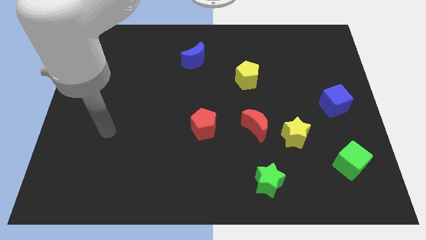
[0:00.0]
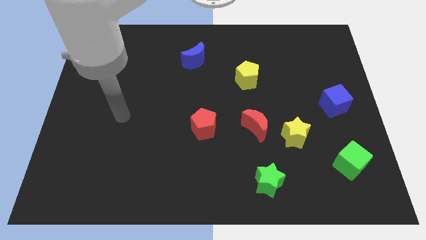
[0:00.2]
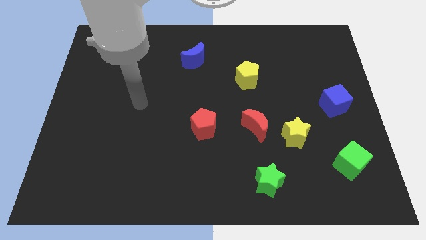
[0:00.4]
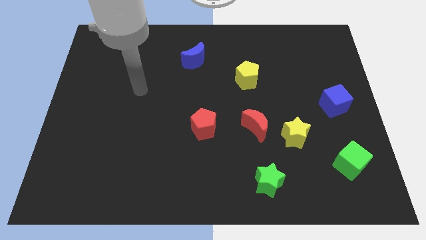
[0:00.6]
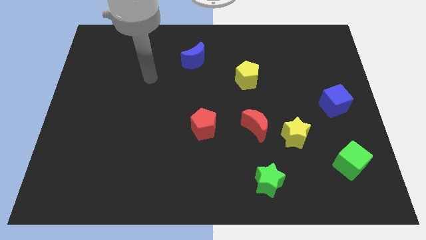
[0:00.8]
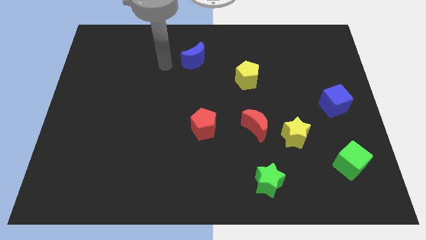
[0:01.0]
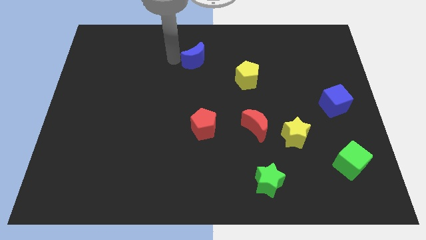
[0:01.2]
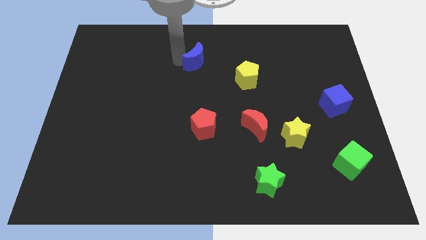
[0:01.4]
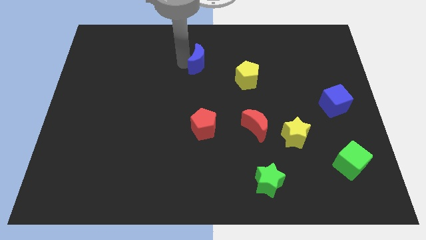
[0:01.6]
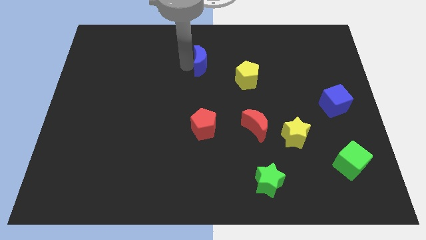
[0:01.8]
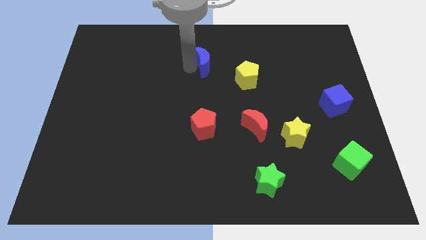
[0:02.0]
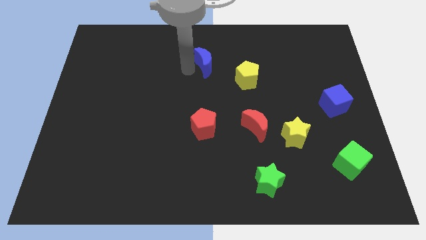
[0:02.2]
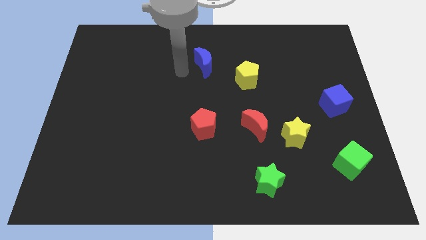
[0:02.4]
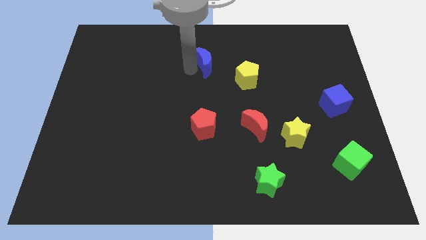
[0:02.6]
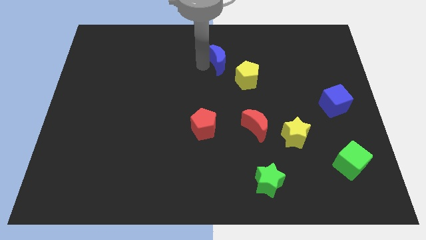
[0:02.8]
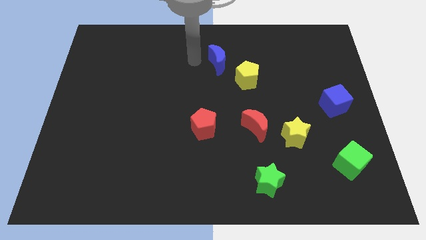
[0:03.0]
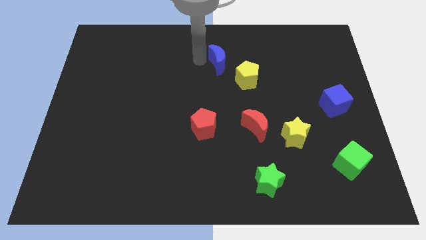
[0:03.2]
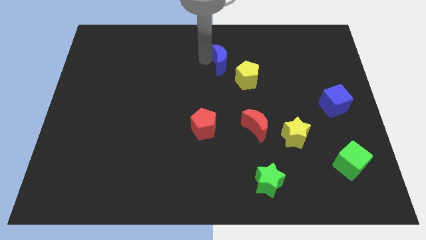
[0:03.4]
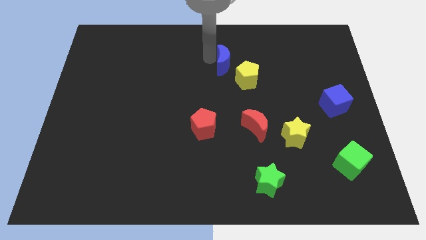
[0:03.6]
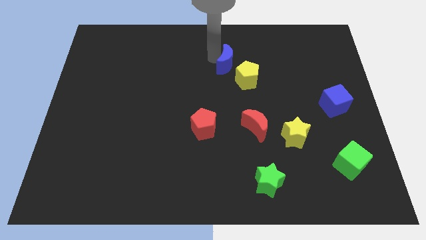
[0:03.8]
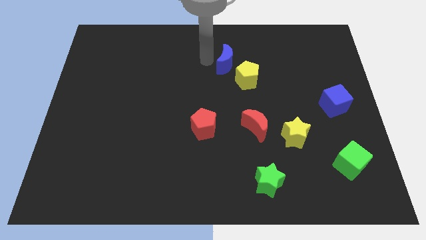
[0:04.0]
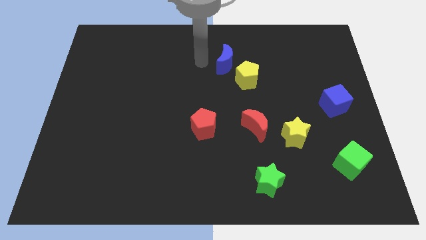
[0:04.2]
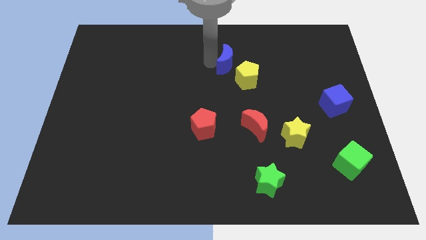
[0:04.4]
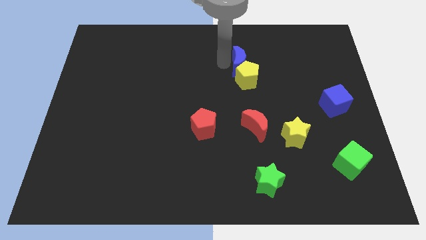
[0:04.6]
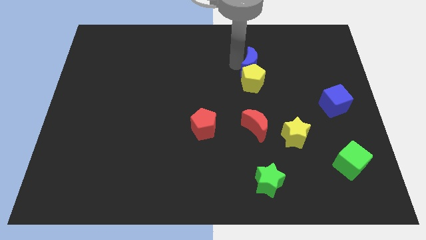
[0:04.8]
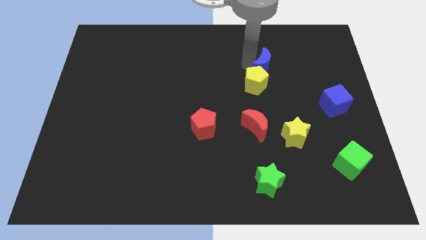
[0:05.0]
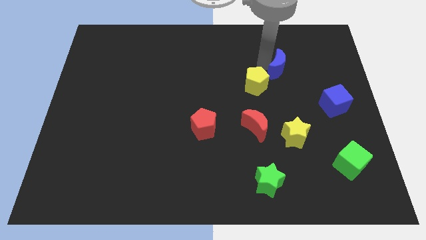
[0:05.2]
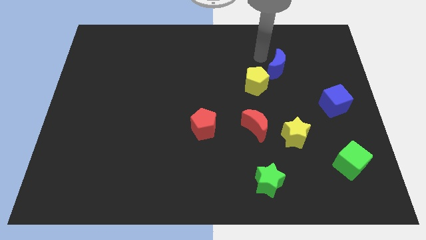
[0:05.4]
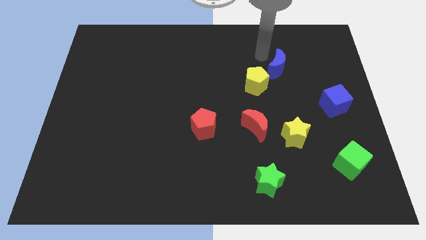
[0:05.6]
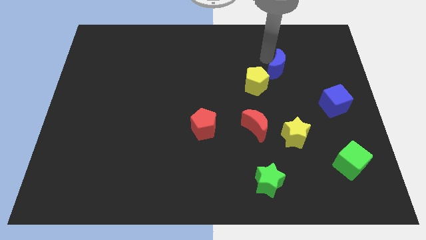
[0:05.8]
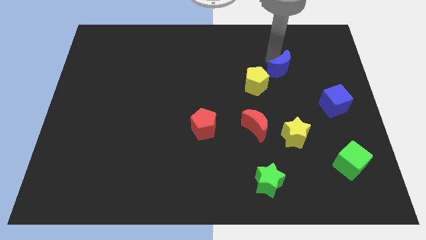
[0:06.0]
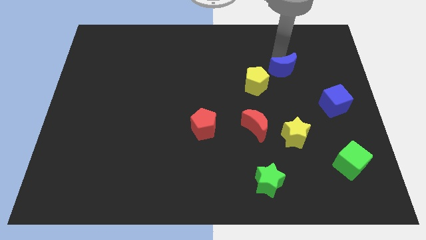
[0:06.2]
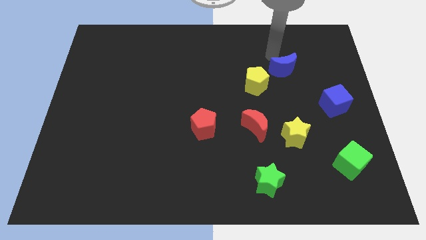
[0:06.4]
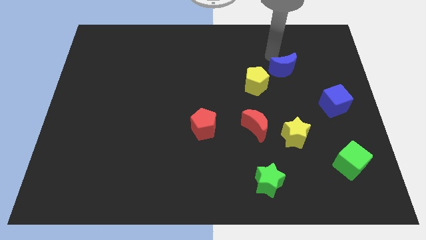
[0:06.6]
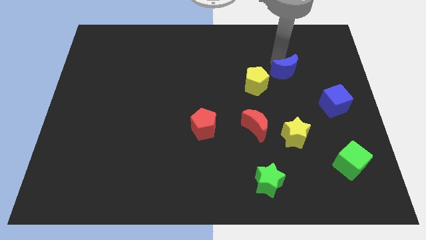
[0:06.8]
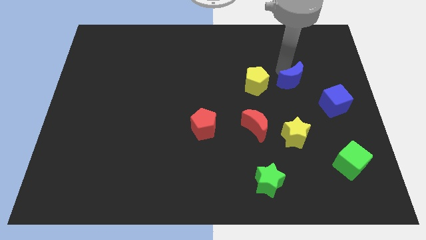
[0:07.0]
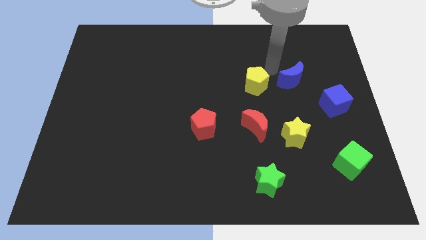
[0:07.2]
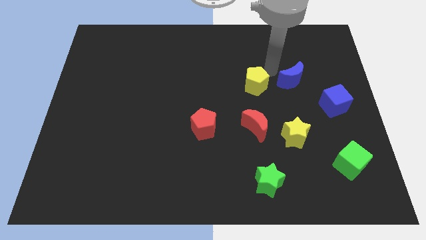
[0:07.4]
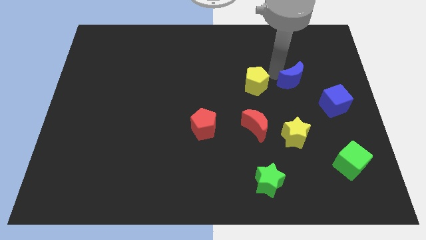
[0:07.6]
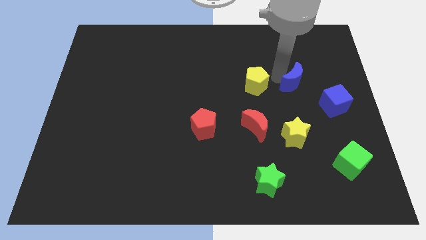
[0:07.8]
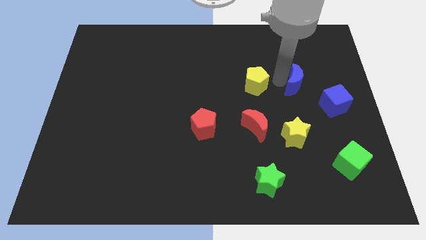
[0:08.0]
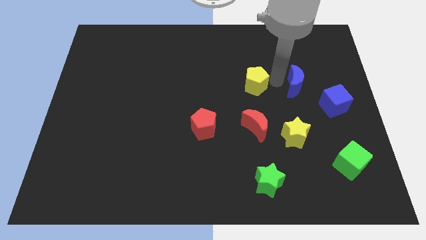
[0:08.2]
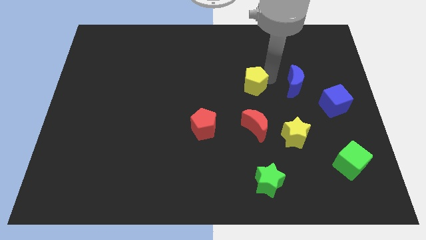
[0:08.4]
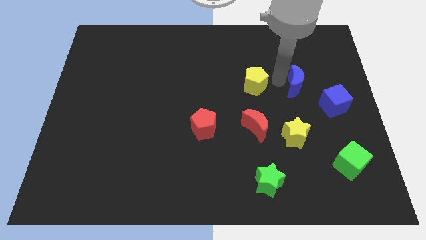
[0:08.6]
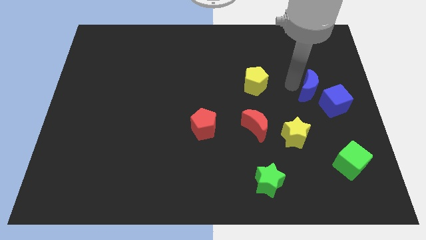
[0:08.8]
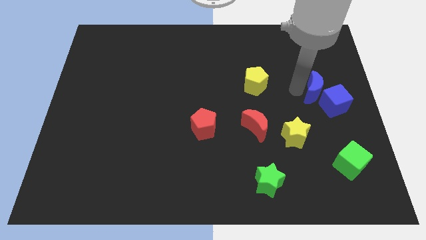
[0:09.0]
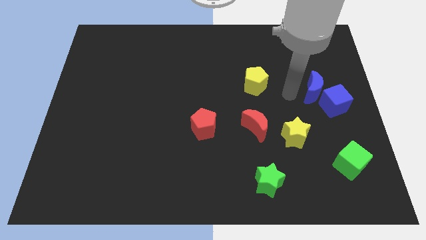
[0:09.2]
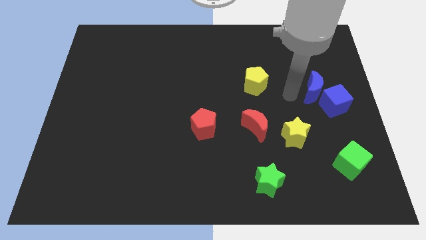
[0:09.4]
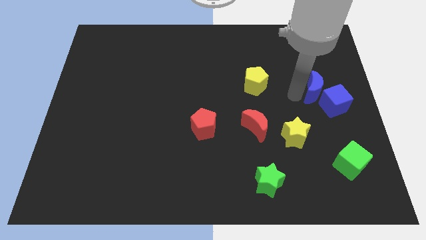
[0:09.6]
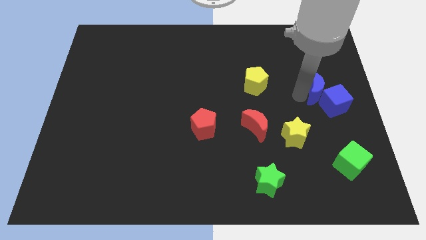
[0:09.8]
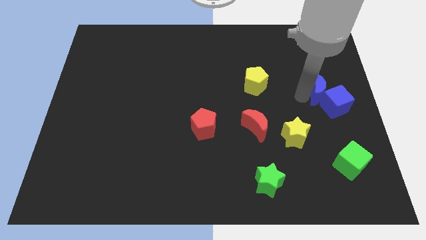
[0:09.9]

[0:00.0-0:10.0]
put the blue moon to the right side

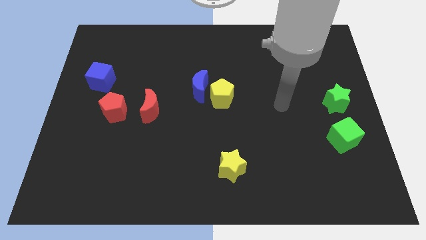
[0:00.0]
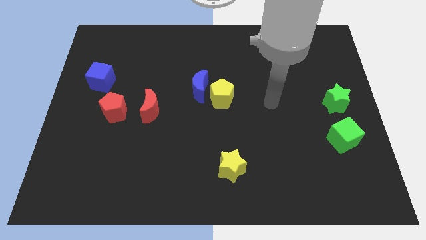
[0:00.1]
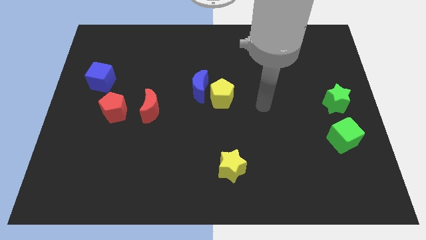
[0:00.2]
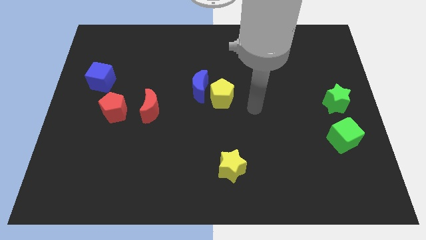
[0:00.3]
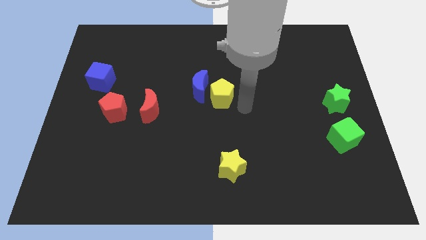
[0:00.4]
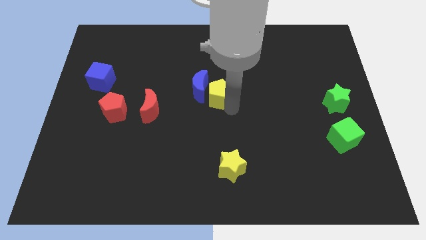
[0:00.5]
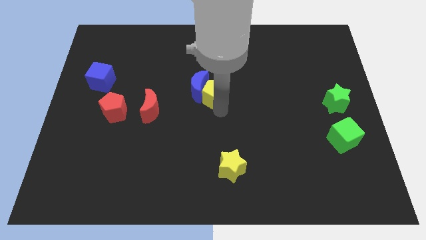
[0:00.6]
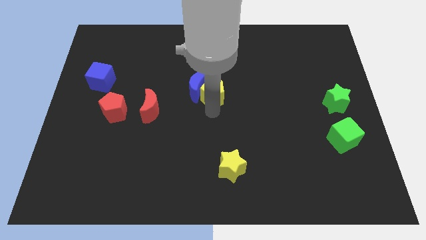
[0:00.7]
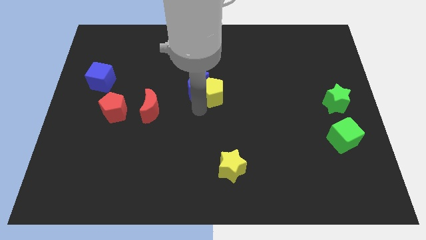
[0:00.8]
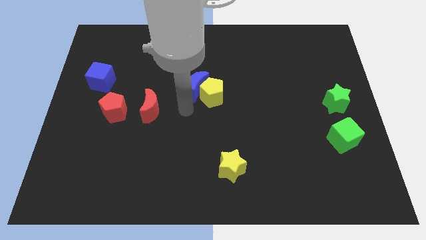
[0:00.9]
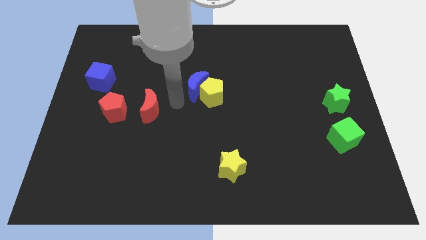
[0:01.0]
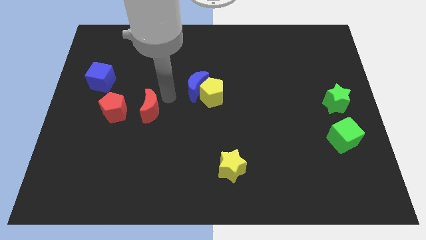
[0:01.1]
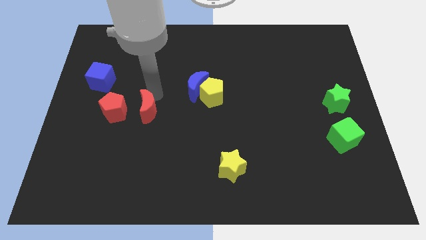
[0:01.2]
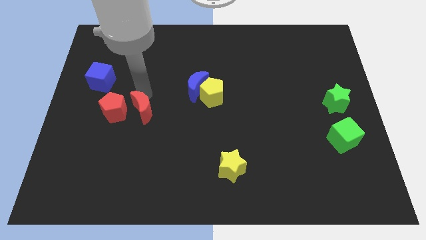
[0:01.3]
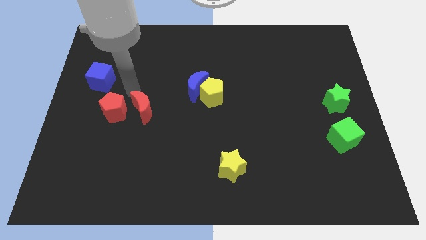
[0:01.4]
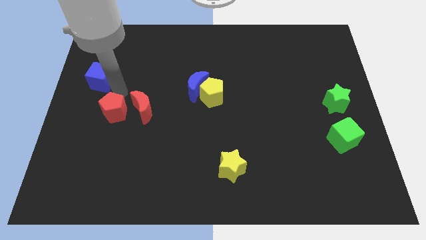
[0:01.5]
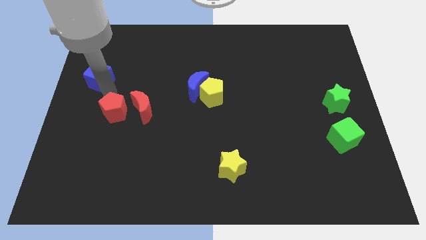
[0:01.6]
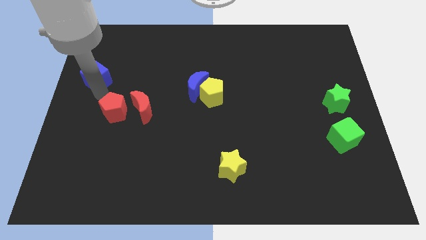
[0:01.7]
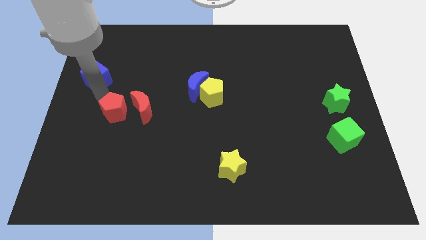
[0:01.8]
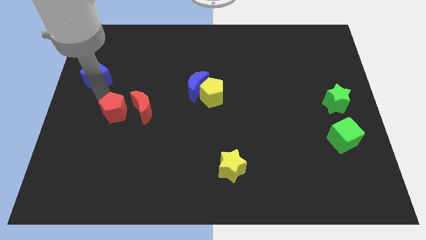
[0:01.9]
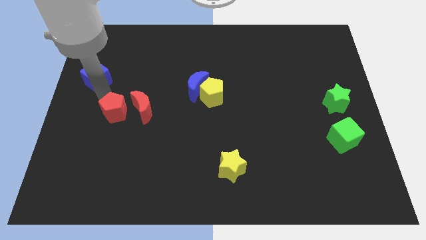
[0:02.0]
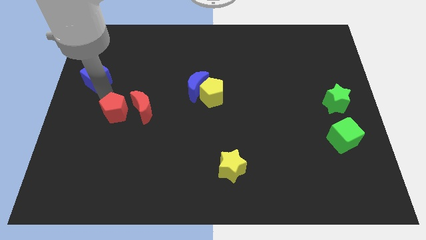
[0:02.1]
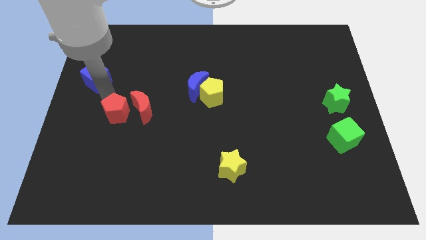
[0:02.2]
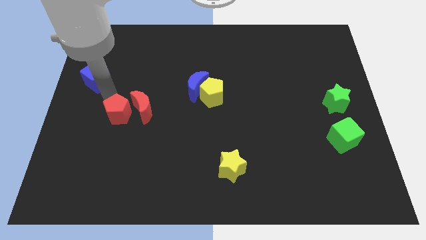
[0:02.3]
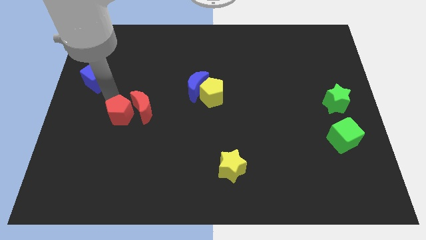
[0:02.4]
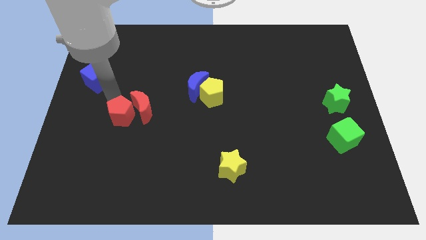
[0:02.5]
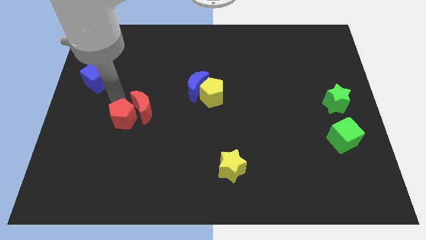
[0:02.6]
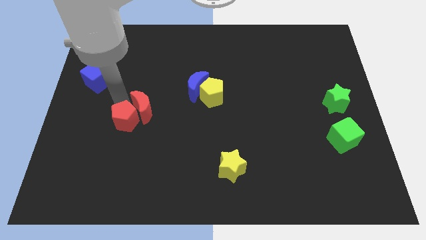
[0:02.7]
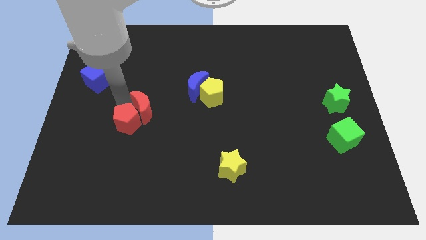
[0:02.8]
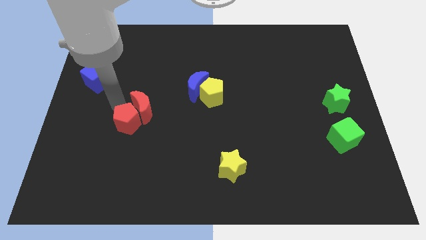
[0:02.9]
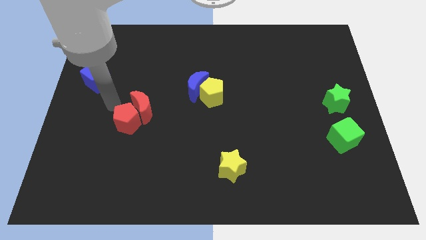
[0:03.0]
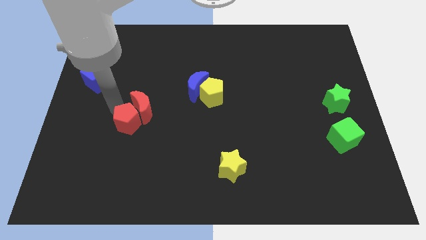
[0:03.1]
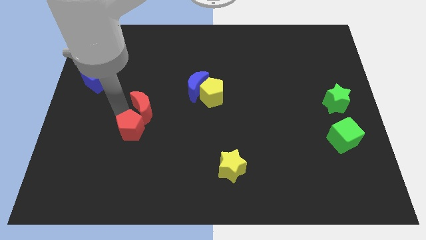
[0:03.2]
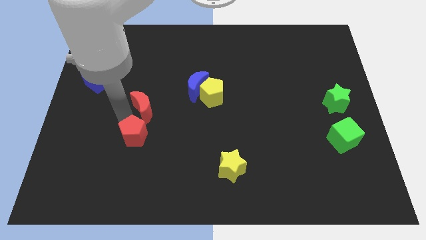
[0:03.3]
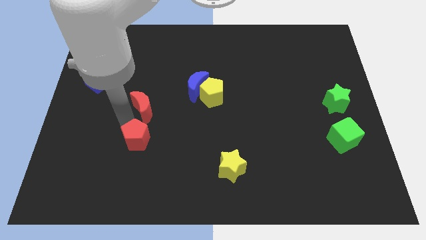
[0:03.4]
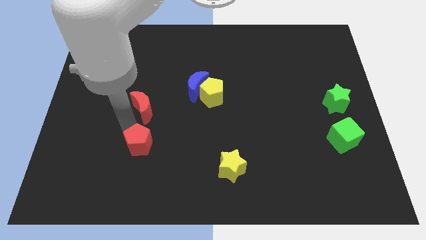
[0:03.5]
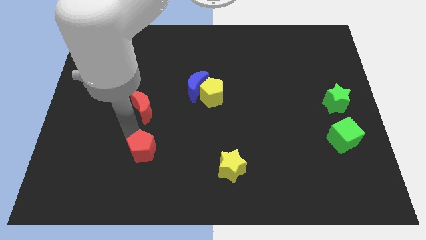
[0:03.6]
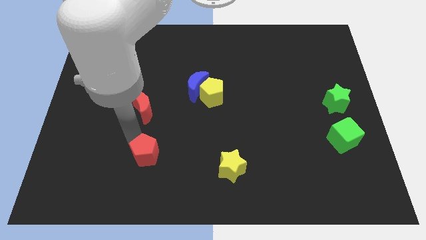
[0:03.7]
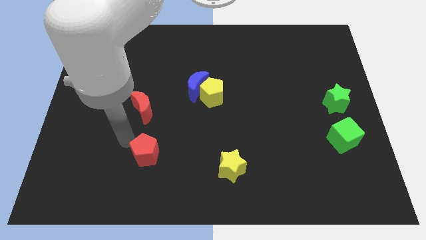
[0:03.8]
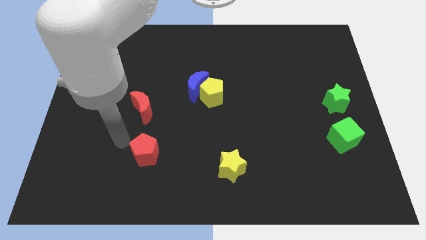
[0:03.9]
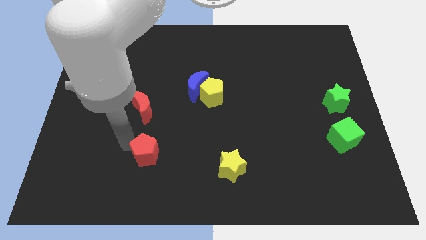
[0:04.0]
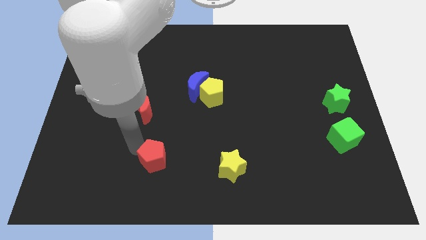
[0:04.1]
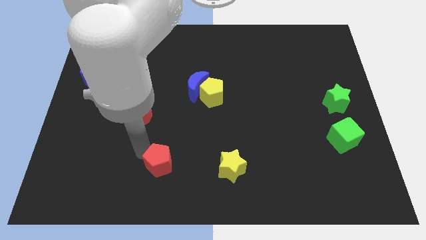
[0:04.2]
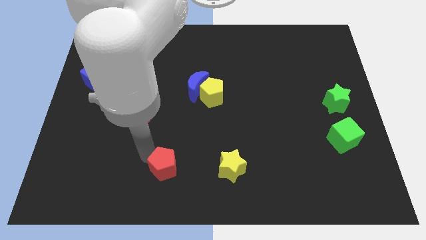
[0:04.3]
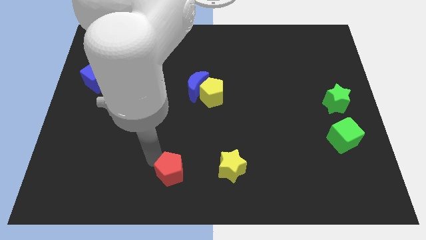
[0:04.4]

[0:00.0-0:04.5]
put the red pentagon to the bottom side
